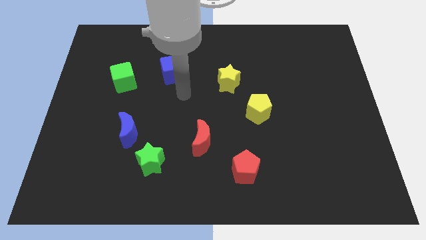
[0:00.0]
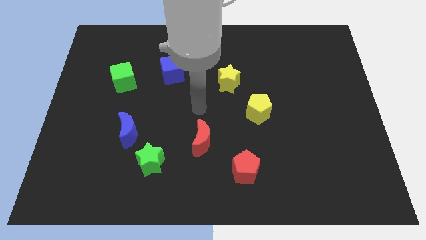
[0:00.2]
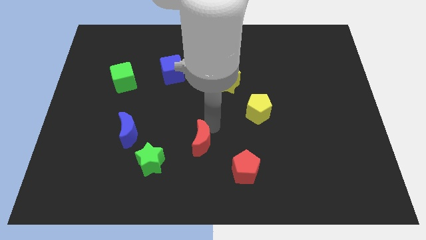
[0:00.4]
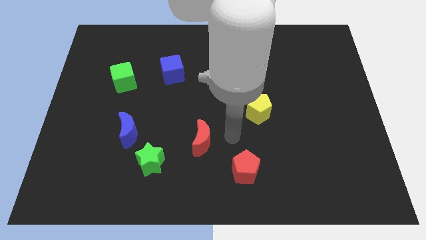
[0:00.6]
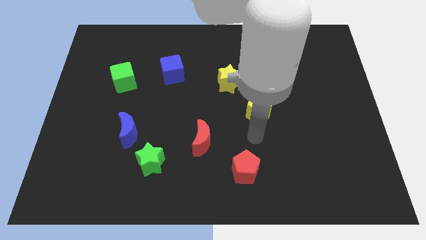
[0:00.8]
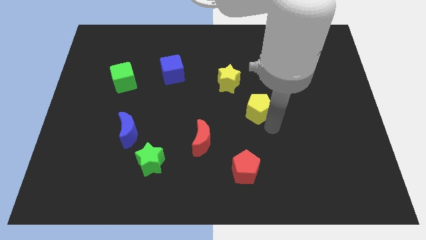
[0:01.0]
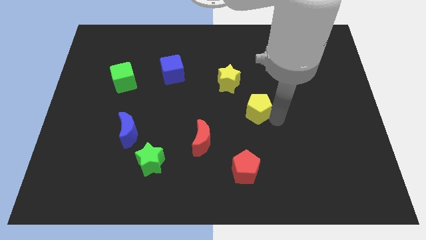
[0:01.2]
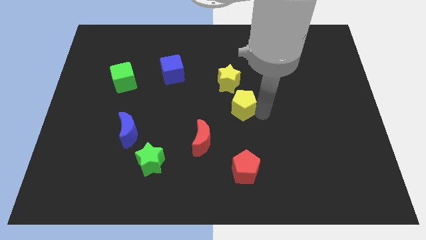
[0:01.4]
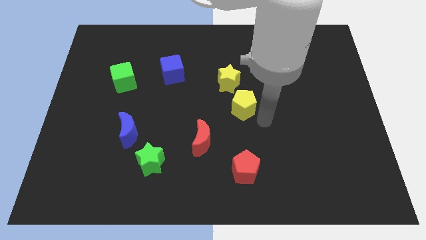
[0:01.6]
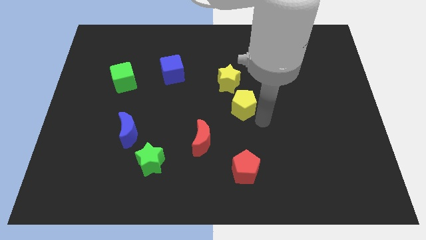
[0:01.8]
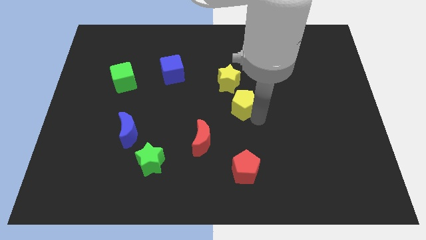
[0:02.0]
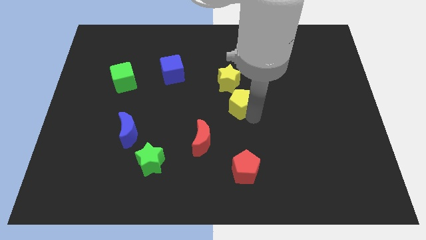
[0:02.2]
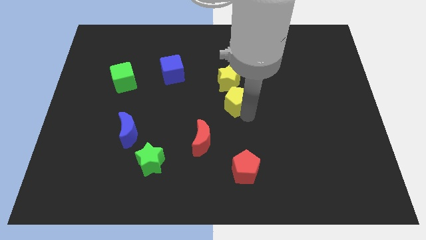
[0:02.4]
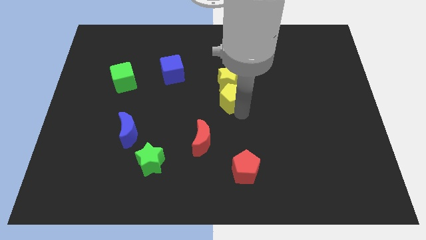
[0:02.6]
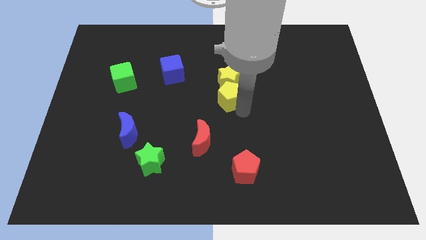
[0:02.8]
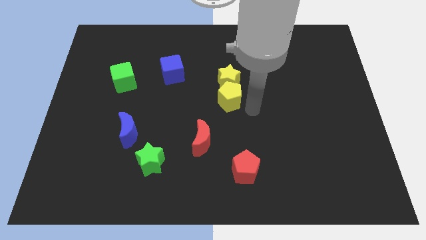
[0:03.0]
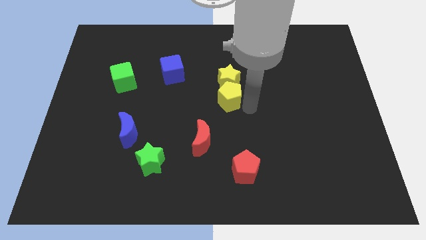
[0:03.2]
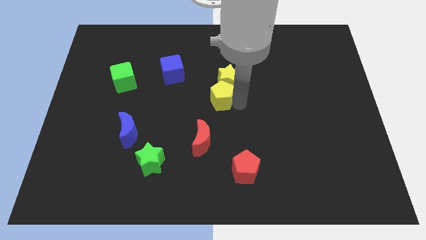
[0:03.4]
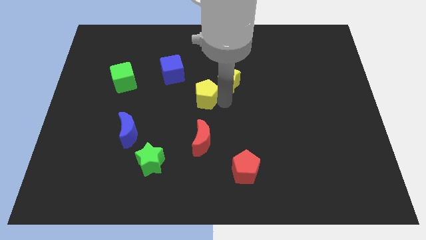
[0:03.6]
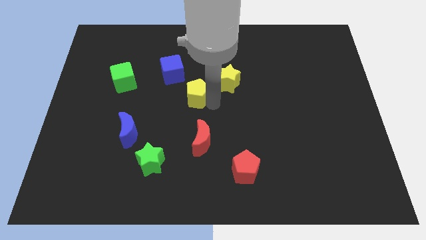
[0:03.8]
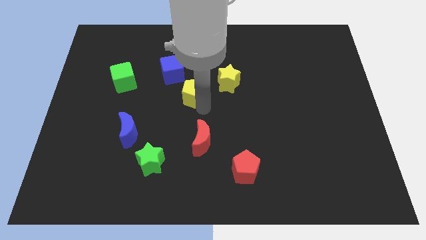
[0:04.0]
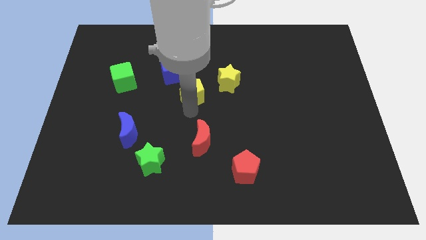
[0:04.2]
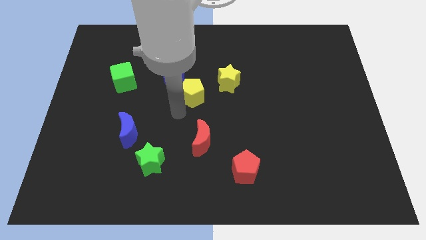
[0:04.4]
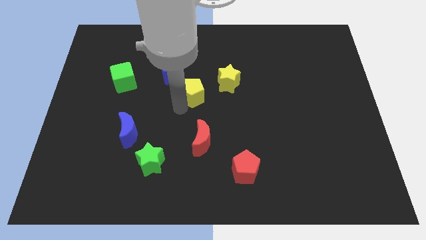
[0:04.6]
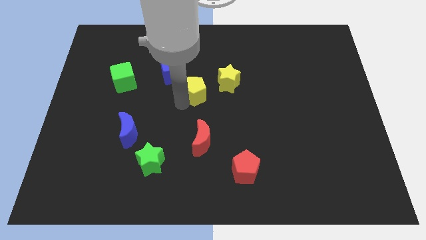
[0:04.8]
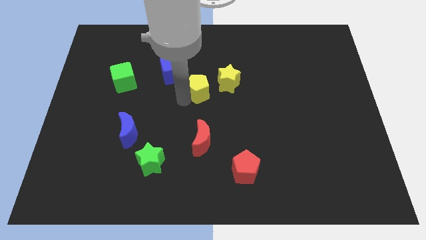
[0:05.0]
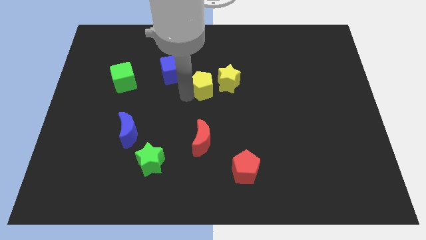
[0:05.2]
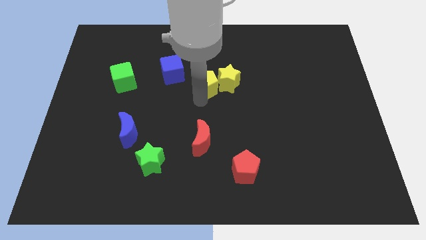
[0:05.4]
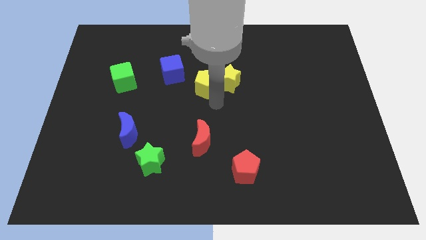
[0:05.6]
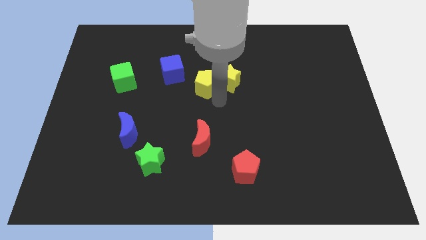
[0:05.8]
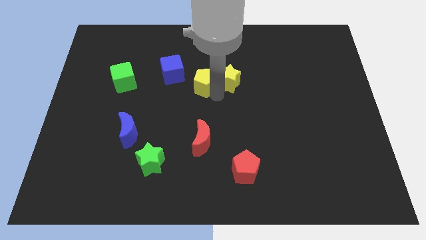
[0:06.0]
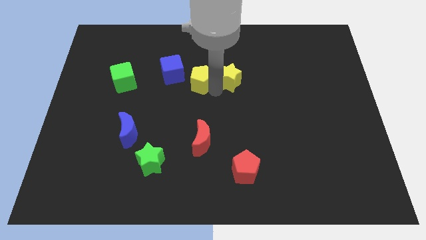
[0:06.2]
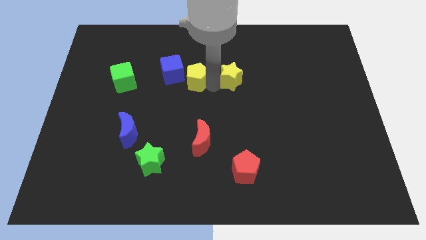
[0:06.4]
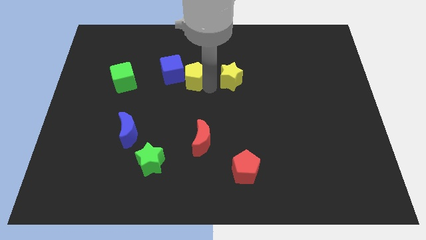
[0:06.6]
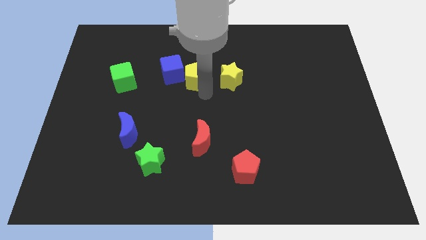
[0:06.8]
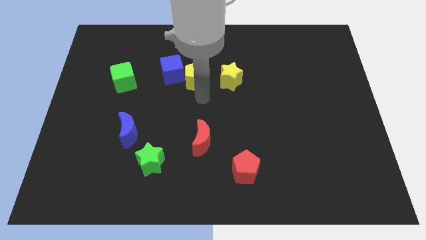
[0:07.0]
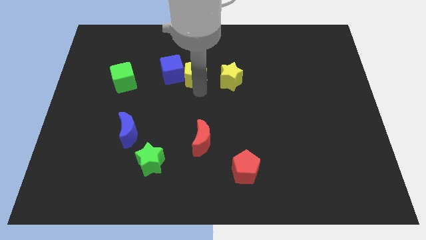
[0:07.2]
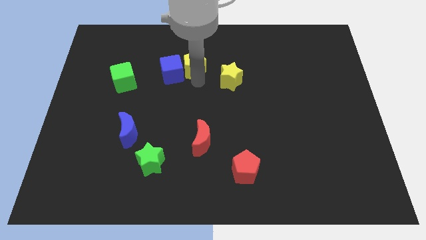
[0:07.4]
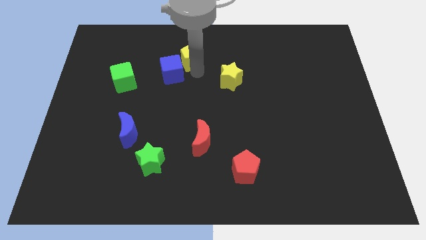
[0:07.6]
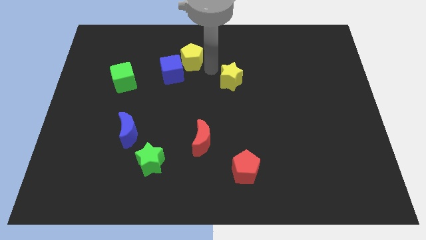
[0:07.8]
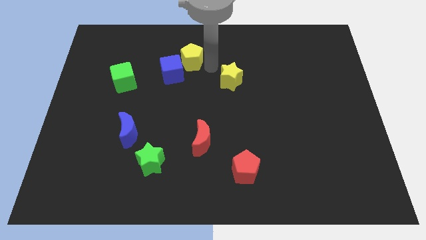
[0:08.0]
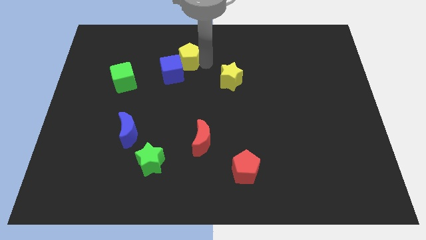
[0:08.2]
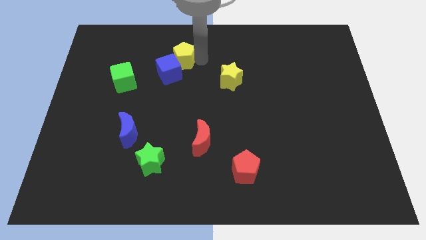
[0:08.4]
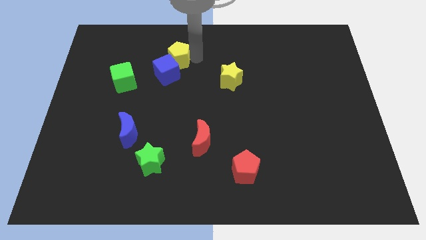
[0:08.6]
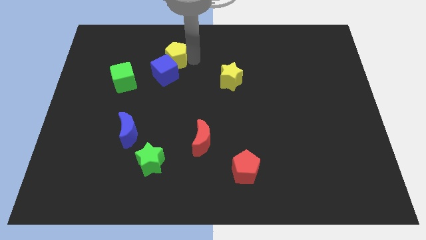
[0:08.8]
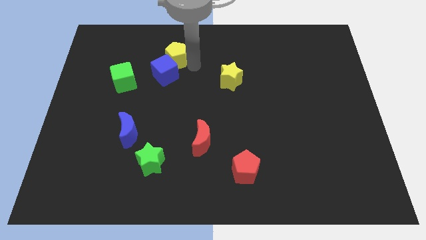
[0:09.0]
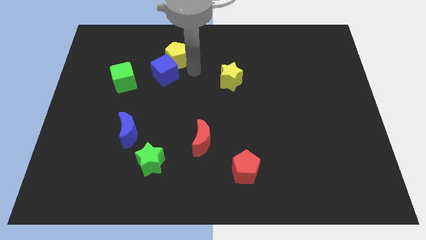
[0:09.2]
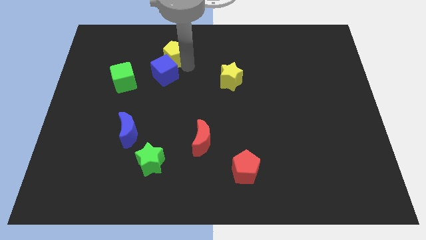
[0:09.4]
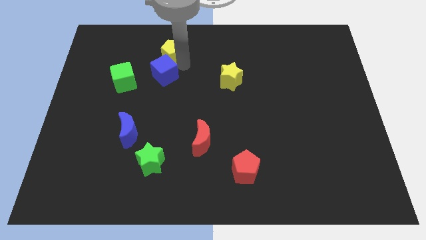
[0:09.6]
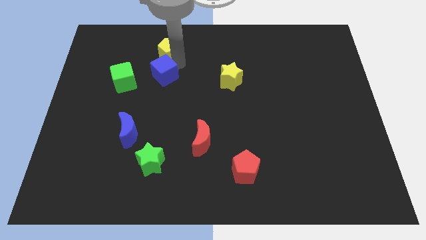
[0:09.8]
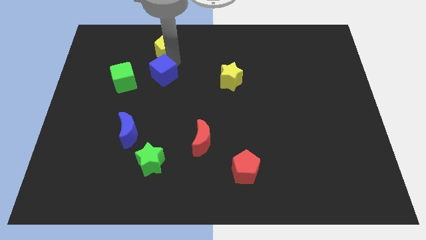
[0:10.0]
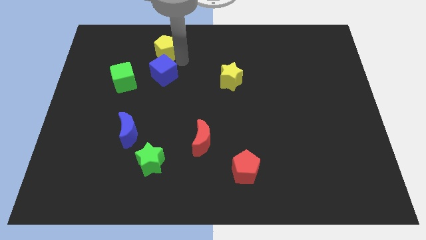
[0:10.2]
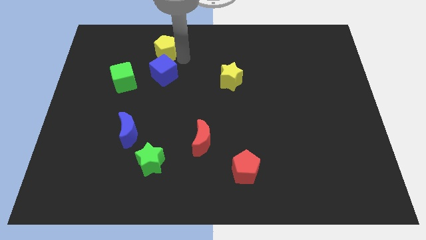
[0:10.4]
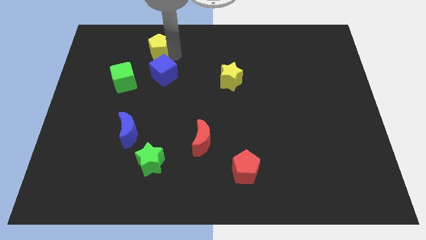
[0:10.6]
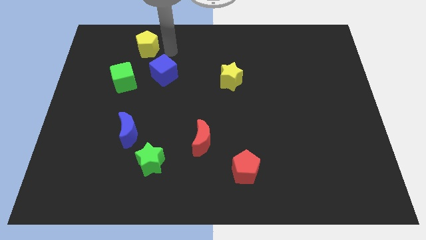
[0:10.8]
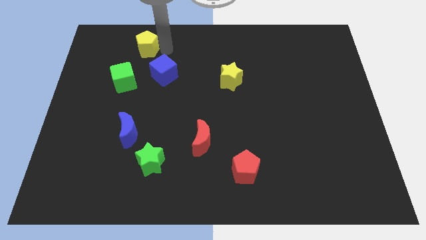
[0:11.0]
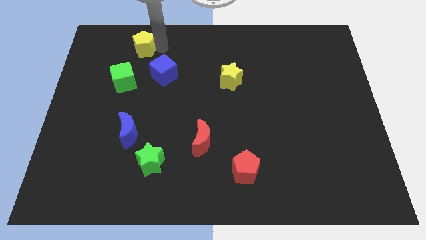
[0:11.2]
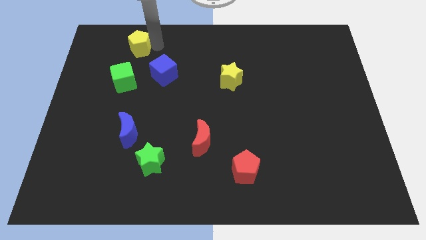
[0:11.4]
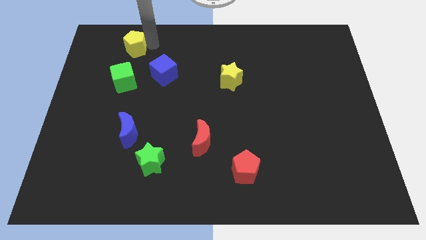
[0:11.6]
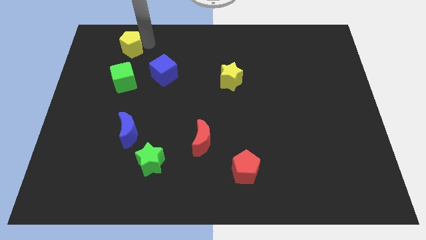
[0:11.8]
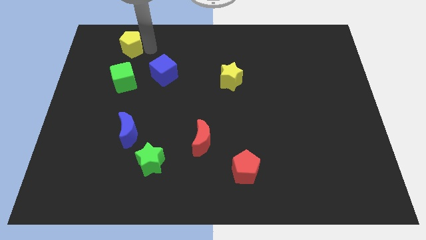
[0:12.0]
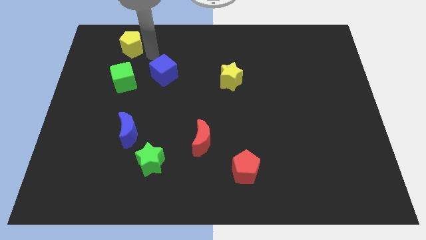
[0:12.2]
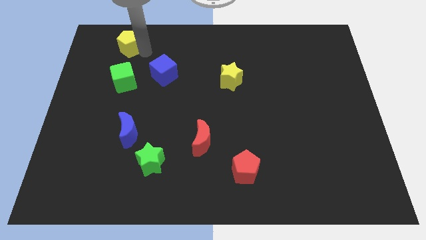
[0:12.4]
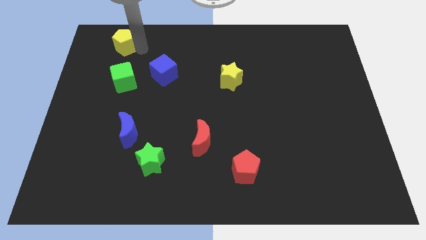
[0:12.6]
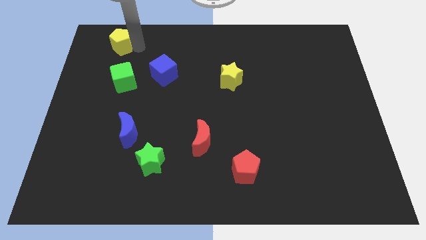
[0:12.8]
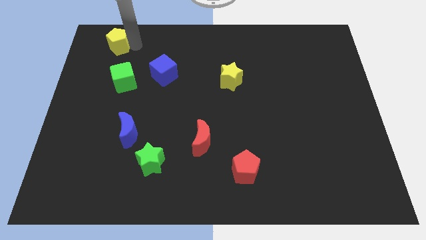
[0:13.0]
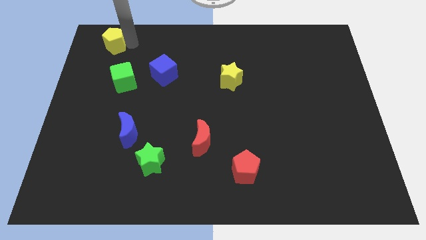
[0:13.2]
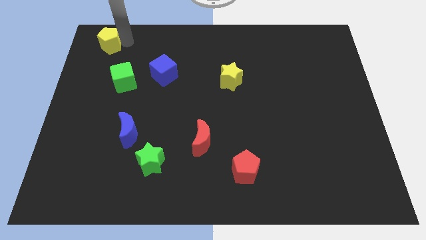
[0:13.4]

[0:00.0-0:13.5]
slide the yellow pentagon to the upper left corner
